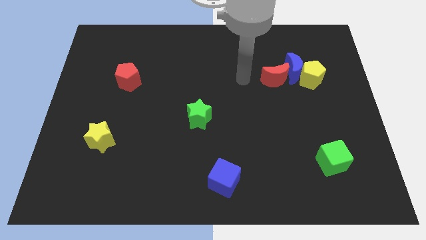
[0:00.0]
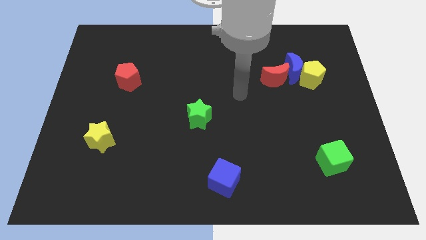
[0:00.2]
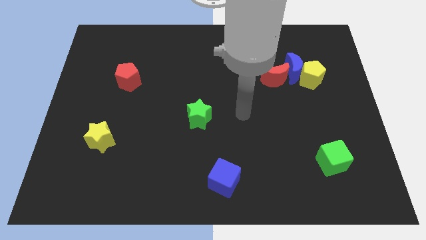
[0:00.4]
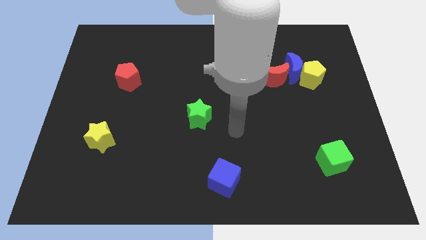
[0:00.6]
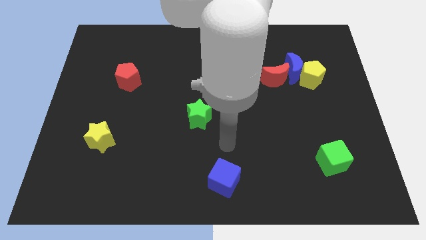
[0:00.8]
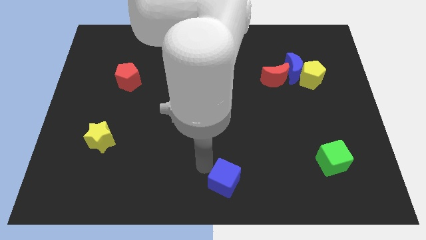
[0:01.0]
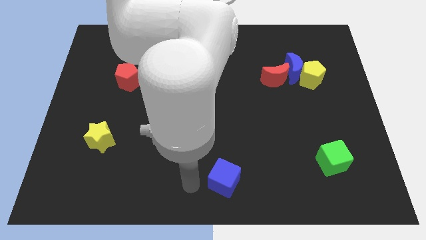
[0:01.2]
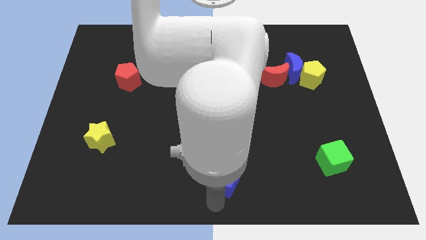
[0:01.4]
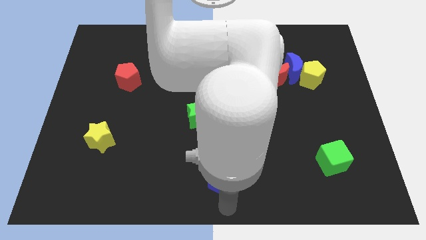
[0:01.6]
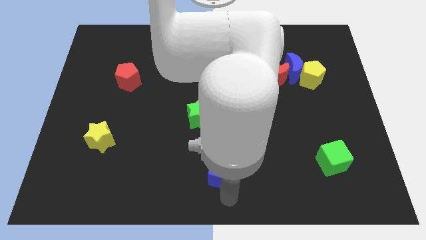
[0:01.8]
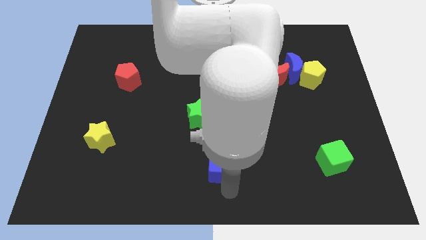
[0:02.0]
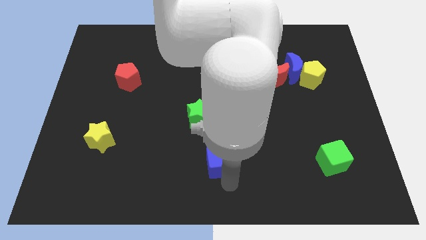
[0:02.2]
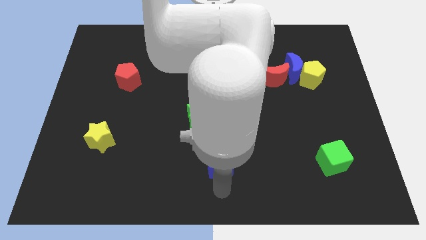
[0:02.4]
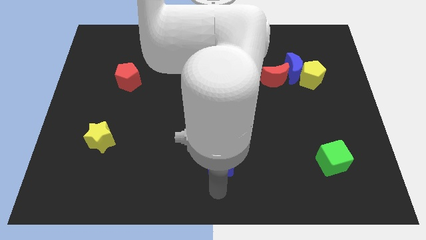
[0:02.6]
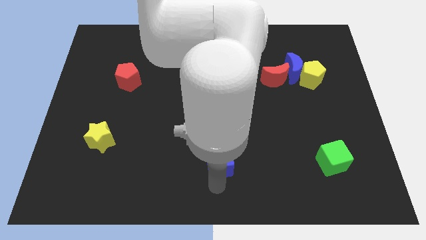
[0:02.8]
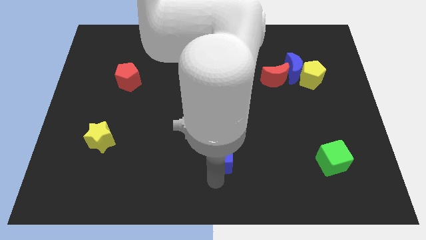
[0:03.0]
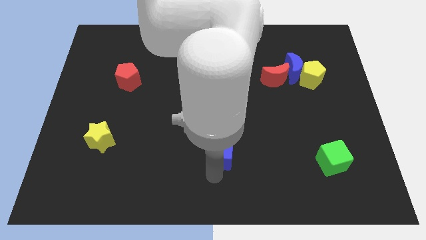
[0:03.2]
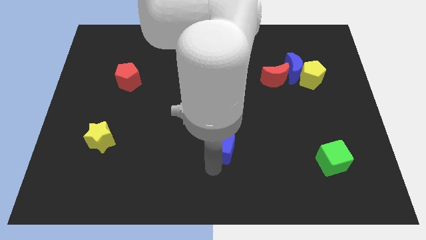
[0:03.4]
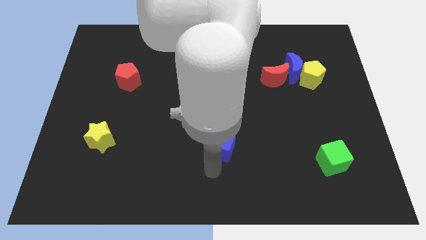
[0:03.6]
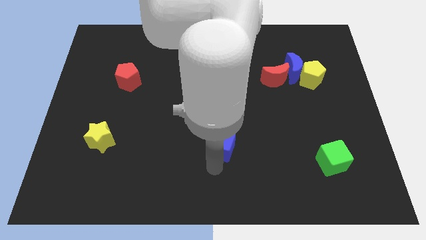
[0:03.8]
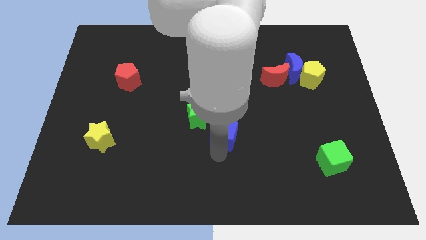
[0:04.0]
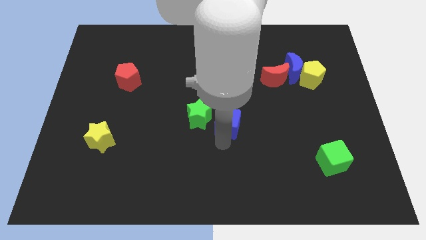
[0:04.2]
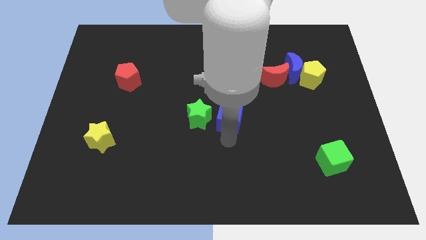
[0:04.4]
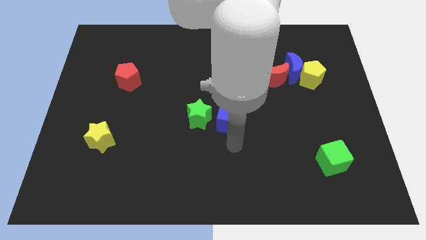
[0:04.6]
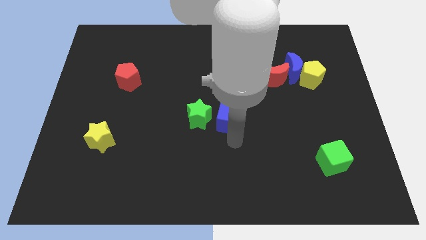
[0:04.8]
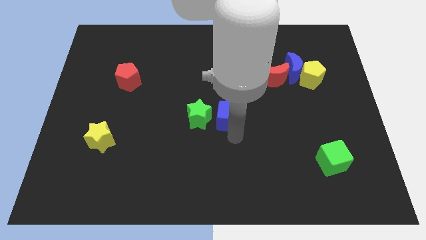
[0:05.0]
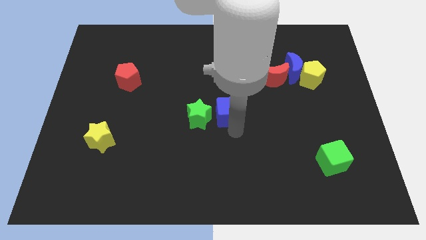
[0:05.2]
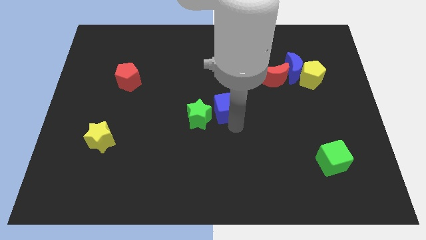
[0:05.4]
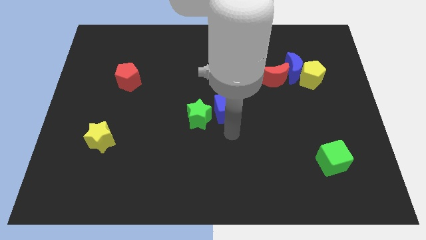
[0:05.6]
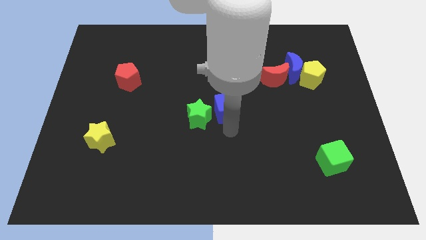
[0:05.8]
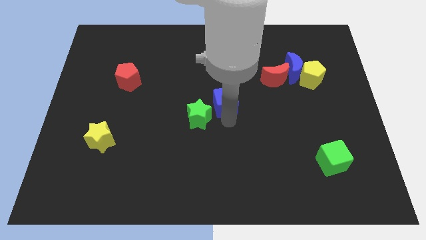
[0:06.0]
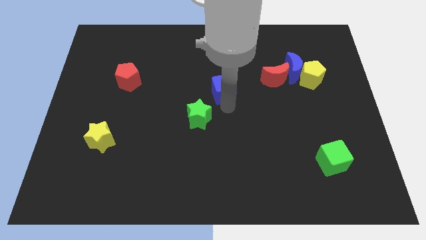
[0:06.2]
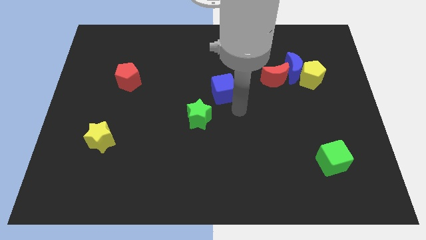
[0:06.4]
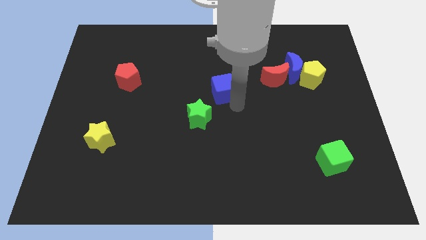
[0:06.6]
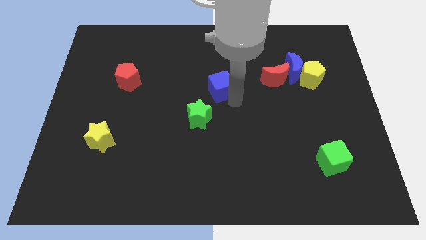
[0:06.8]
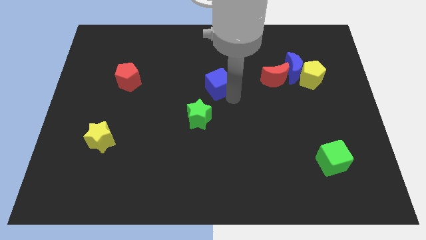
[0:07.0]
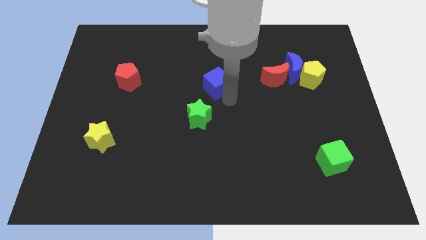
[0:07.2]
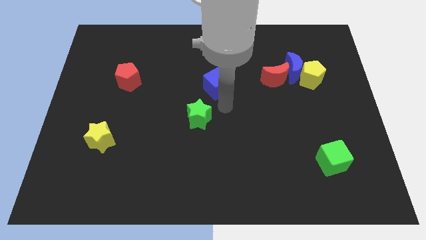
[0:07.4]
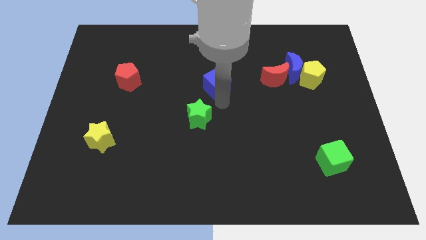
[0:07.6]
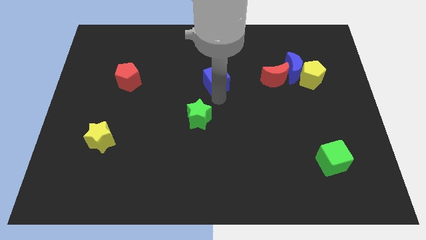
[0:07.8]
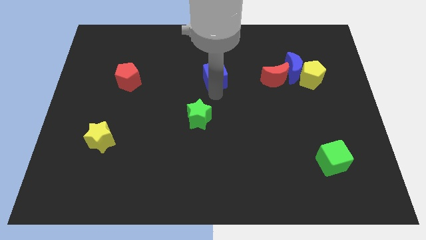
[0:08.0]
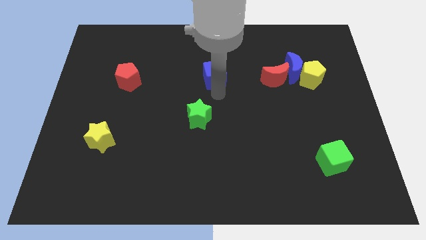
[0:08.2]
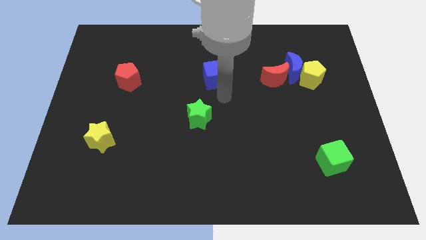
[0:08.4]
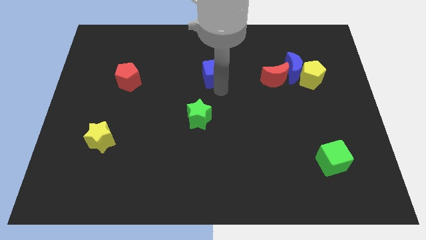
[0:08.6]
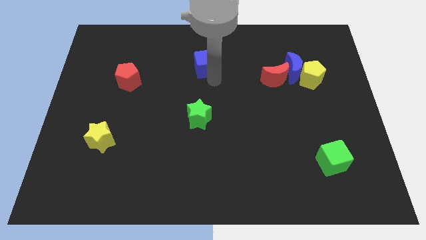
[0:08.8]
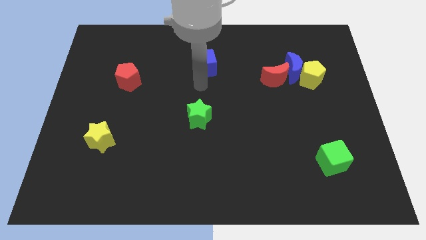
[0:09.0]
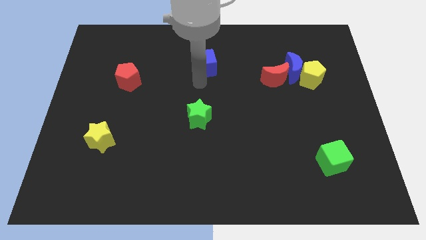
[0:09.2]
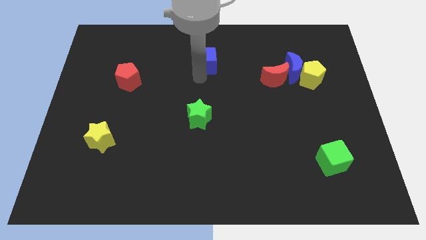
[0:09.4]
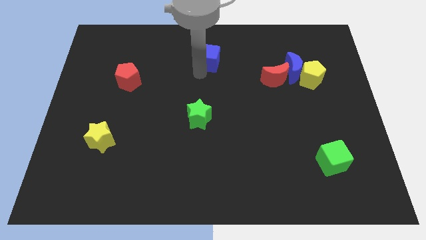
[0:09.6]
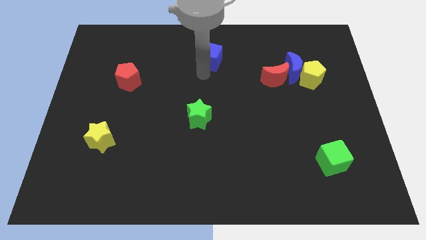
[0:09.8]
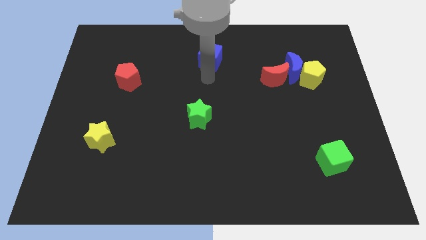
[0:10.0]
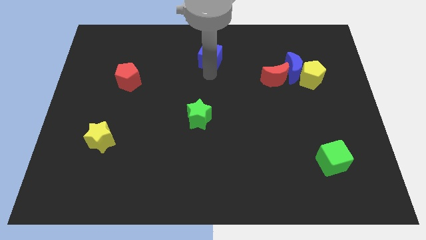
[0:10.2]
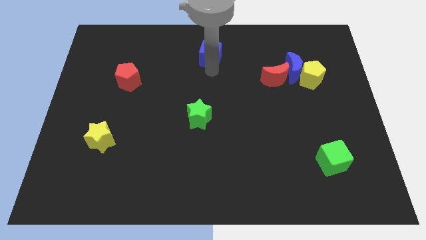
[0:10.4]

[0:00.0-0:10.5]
slide the blue cube to the towards your base

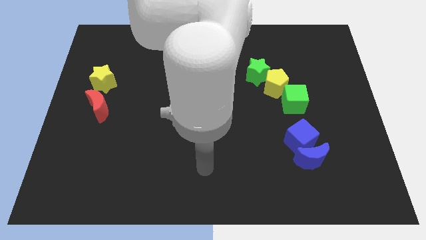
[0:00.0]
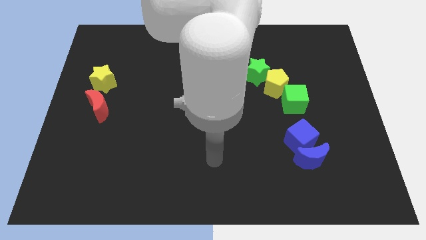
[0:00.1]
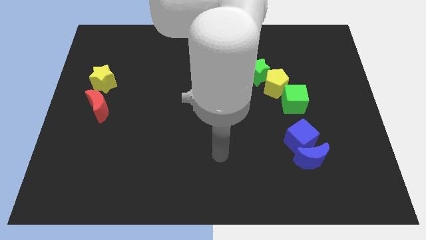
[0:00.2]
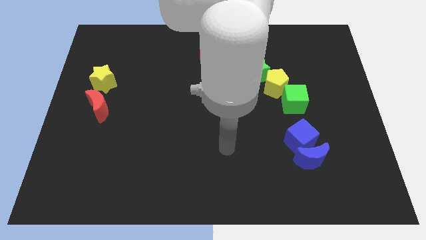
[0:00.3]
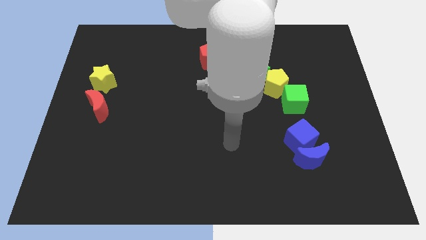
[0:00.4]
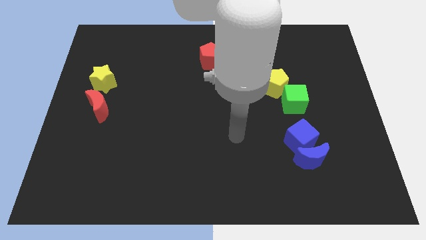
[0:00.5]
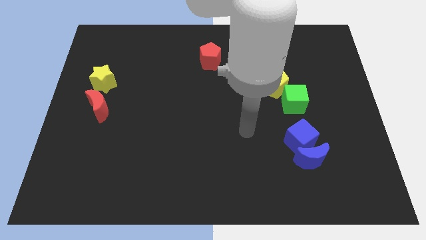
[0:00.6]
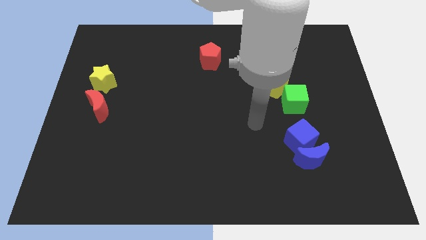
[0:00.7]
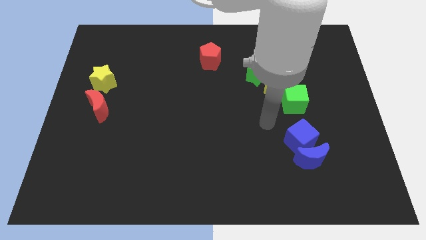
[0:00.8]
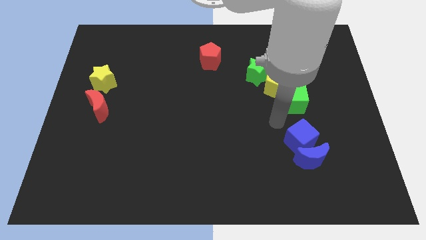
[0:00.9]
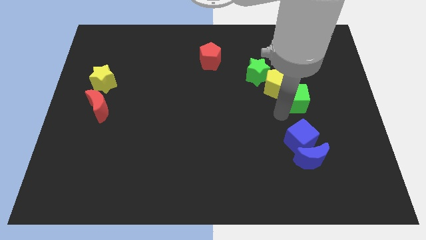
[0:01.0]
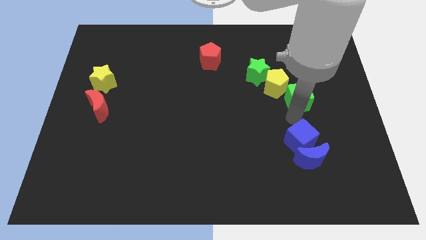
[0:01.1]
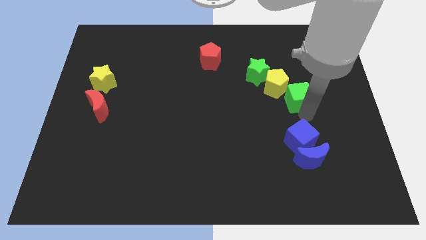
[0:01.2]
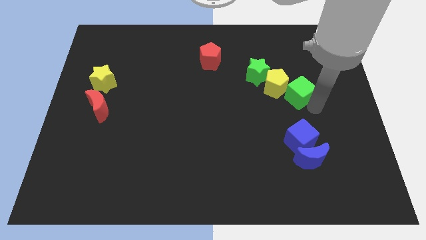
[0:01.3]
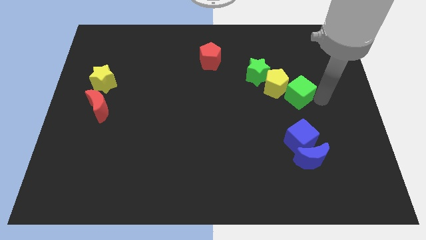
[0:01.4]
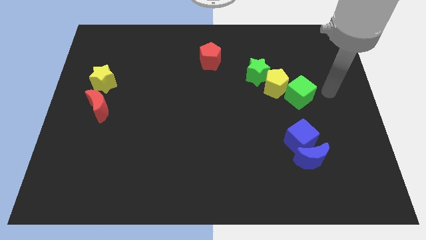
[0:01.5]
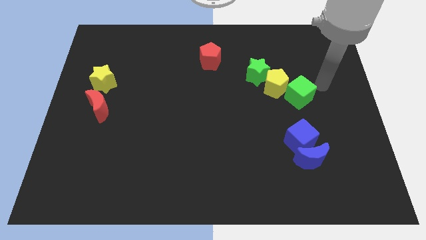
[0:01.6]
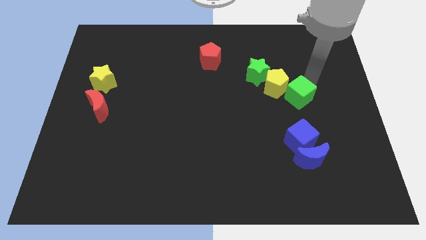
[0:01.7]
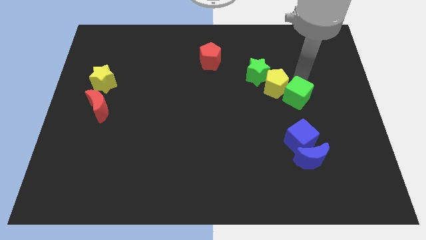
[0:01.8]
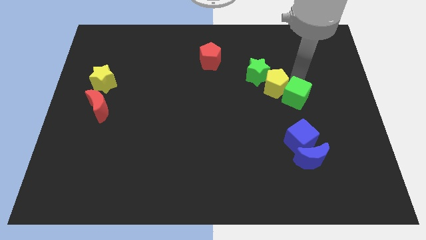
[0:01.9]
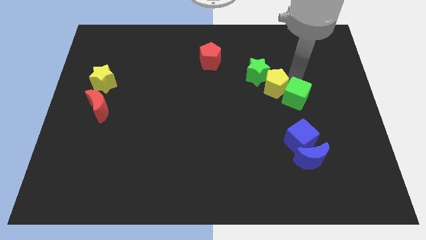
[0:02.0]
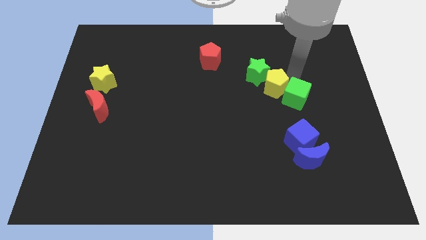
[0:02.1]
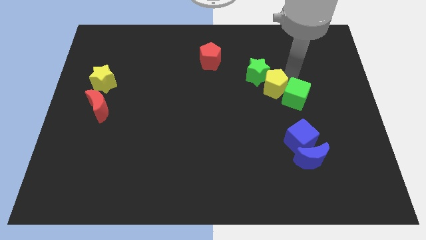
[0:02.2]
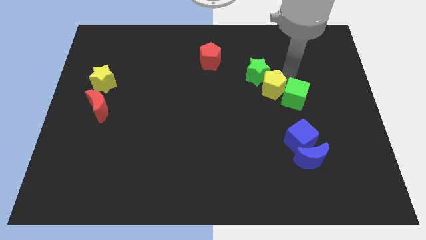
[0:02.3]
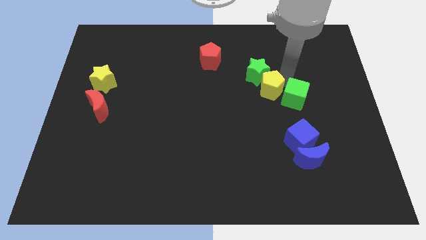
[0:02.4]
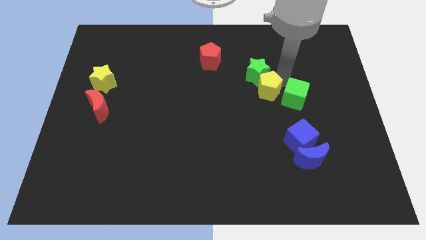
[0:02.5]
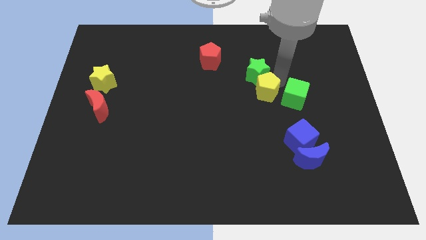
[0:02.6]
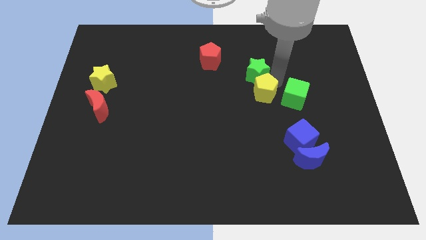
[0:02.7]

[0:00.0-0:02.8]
slide the yellow pentagon to the center of the board
